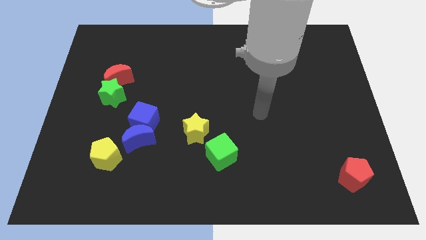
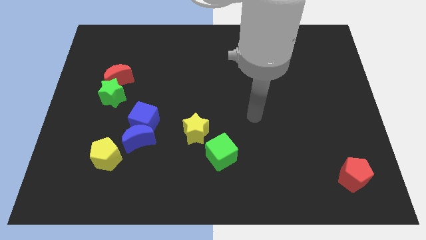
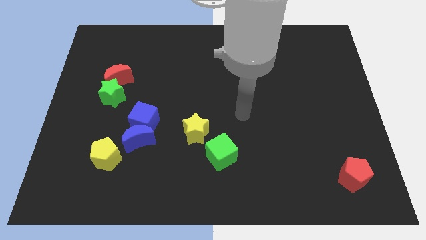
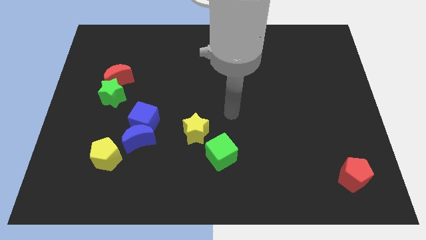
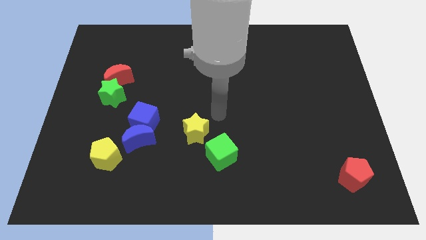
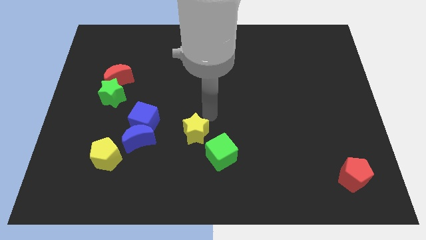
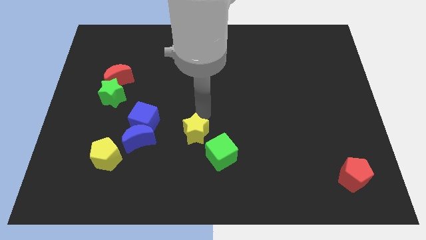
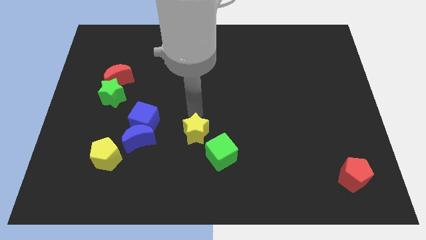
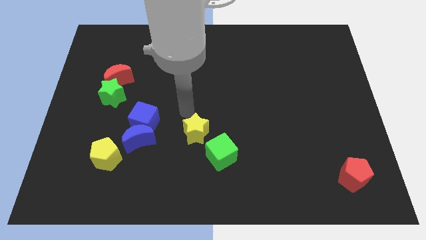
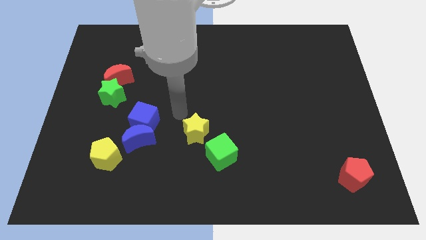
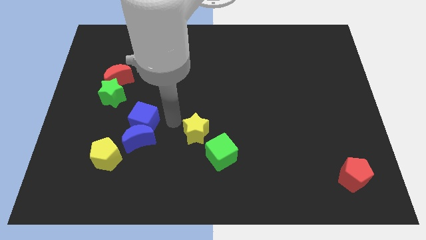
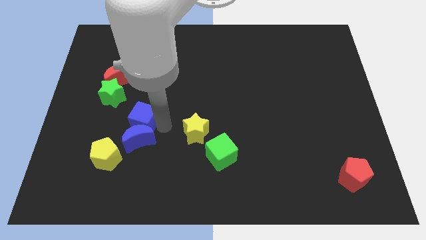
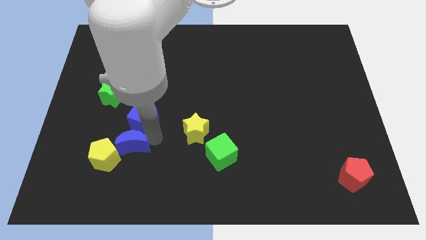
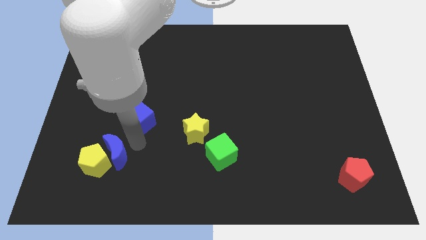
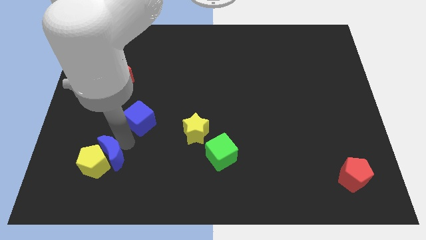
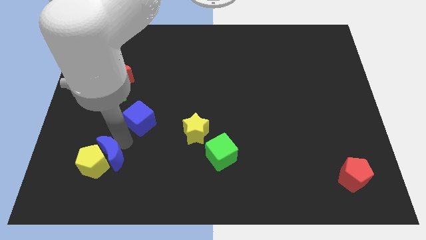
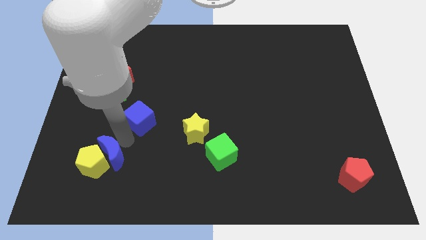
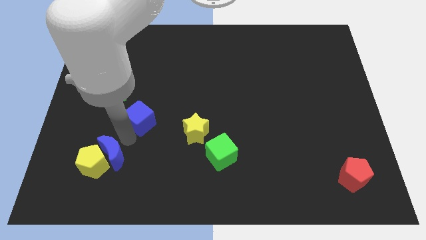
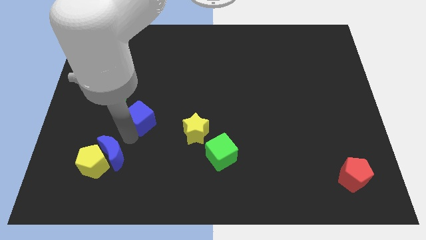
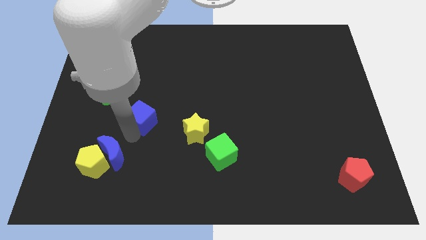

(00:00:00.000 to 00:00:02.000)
separate the blue cube from the blue moon

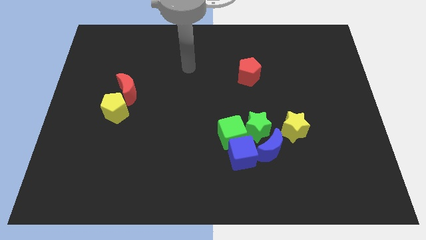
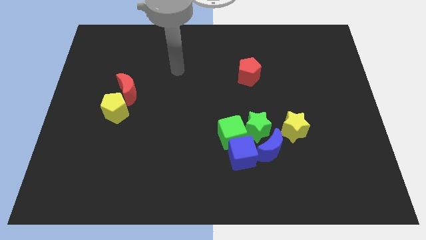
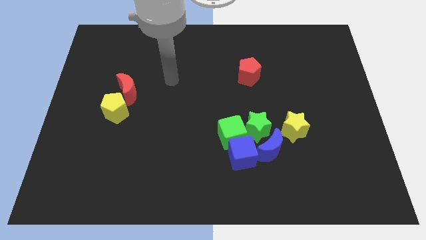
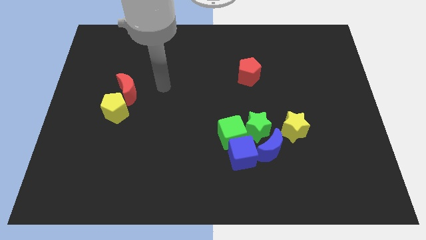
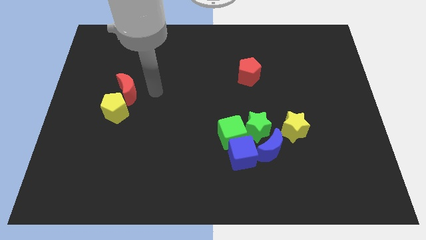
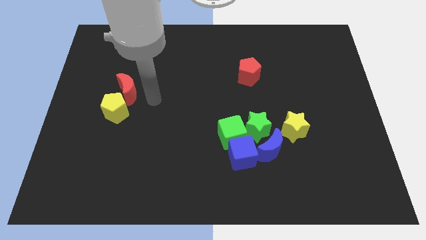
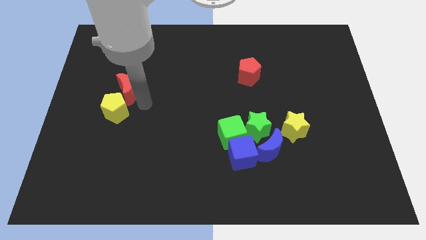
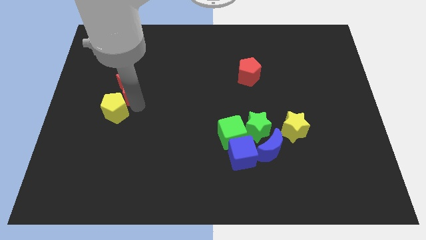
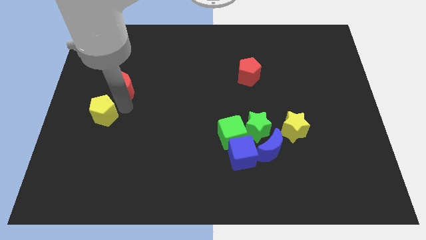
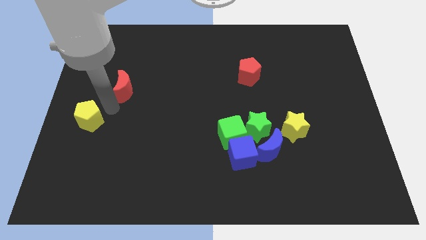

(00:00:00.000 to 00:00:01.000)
move the red moon away from the yellow pentagon

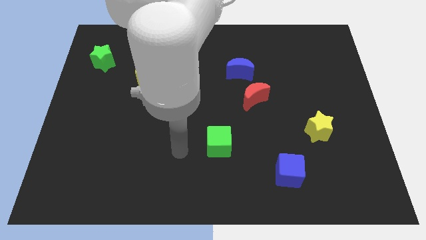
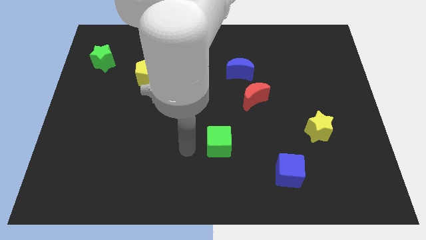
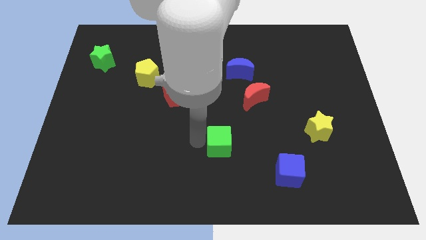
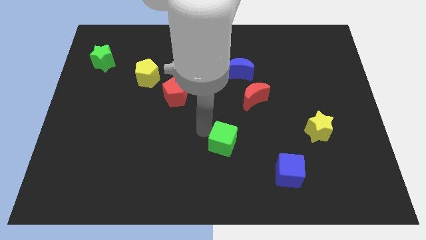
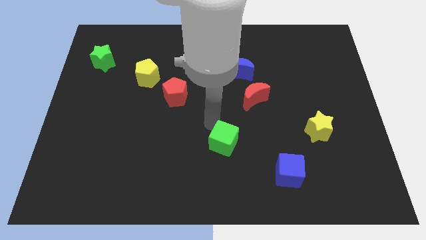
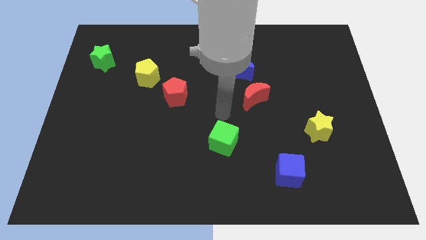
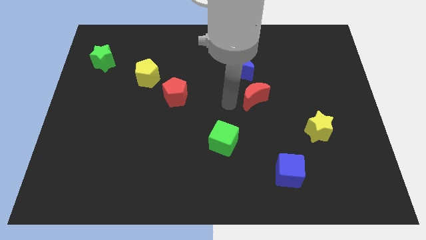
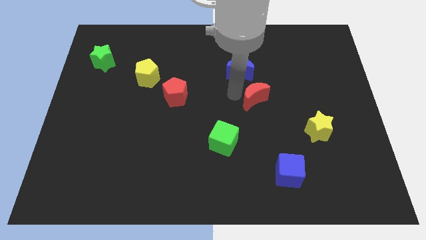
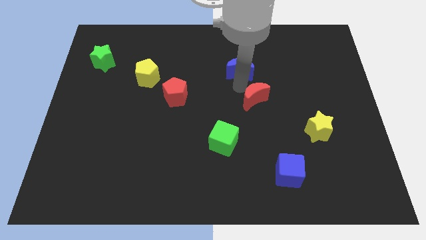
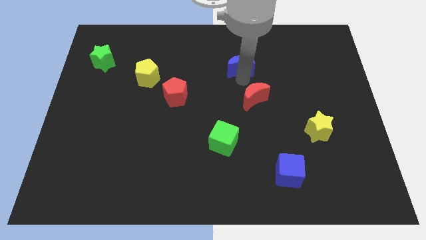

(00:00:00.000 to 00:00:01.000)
move the red moon away from the blue moon

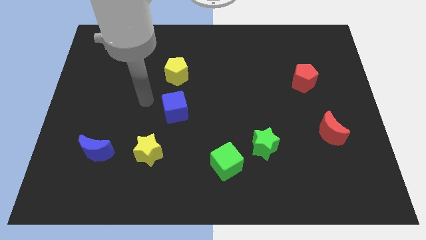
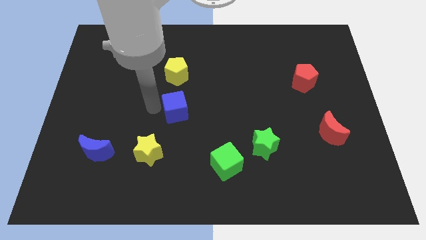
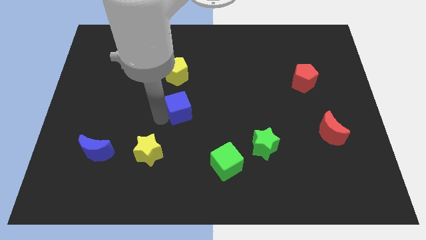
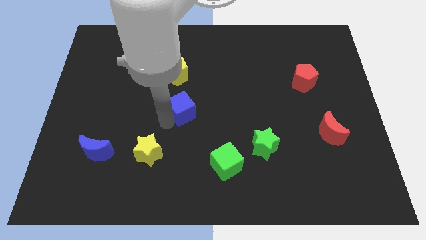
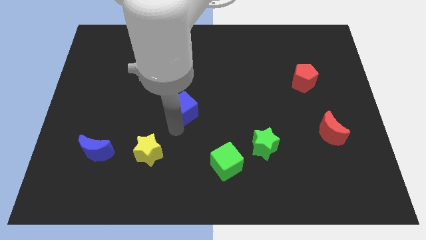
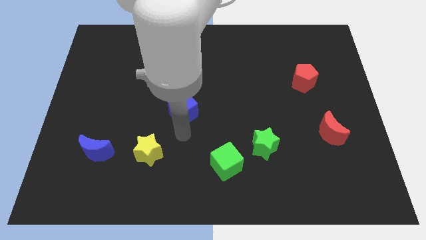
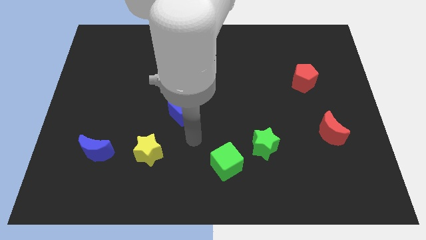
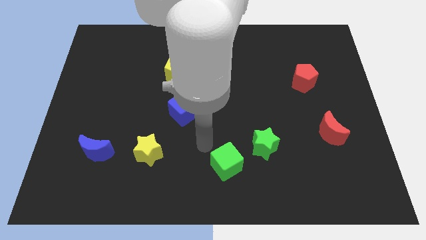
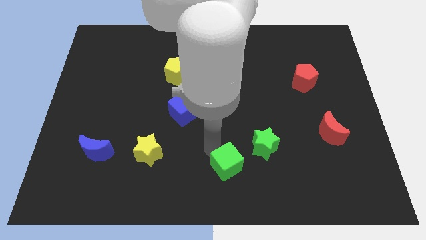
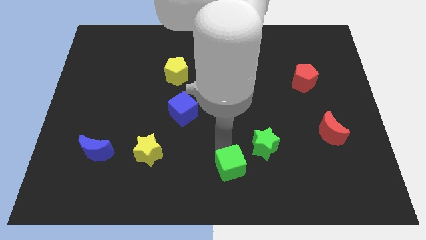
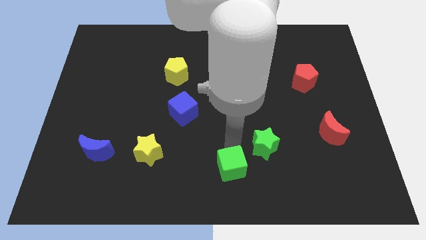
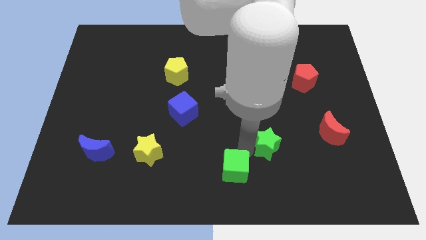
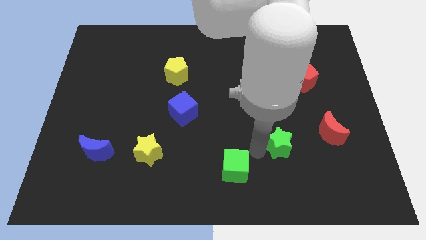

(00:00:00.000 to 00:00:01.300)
pull the green cube apart from the green star

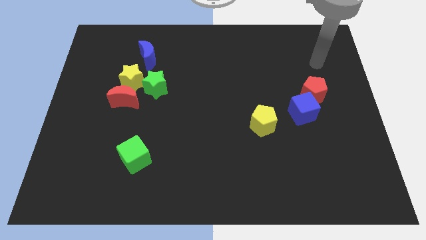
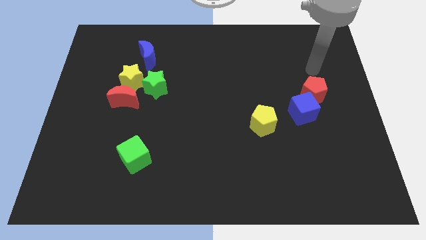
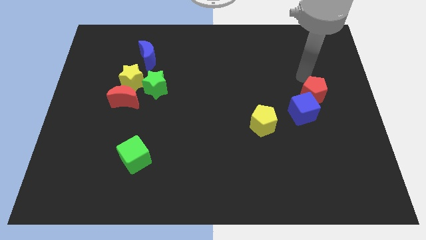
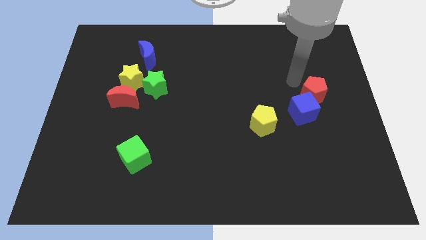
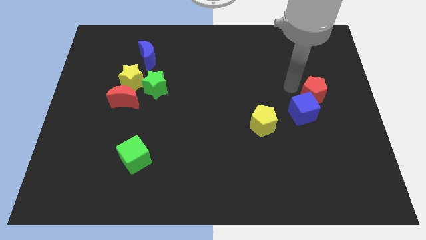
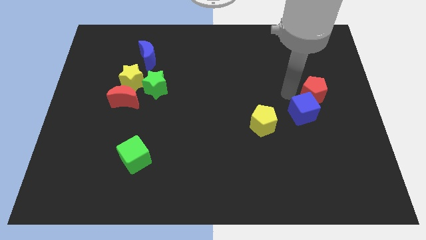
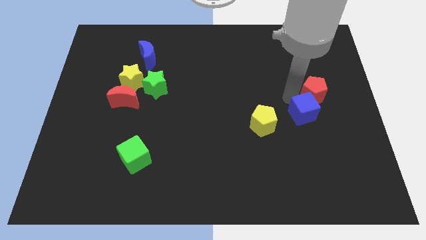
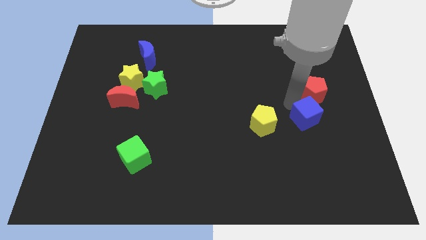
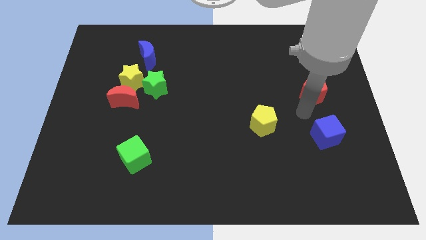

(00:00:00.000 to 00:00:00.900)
move the red pentagon away from the blue cube

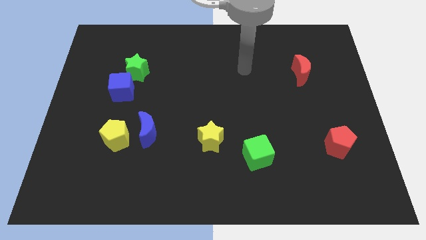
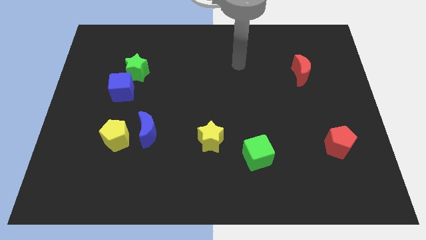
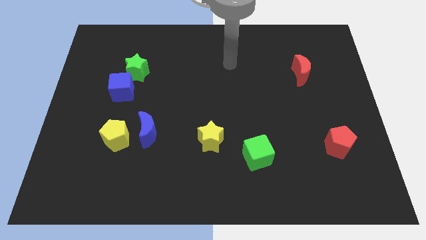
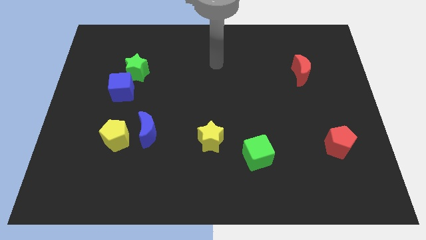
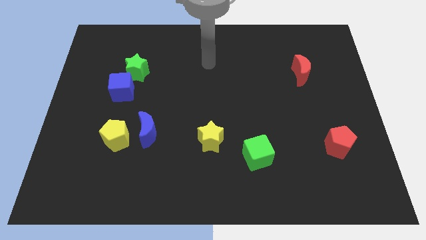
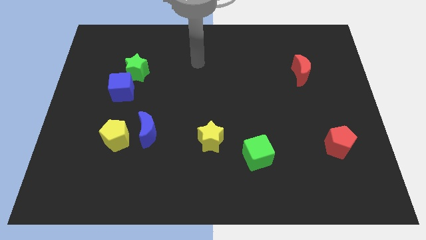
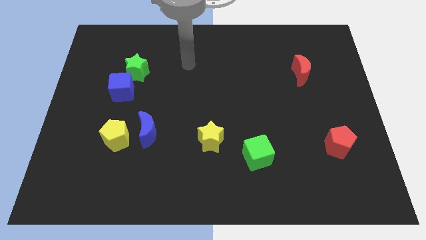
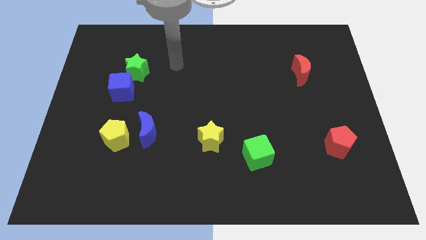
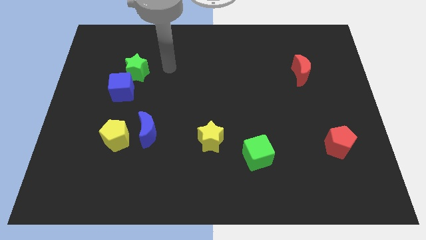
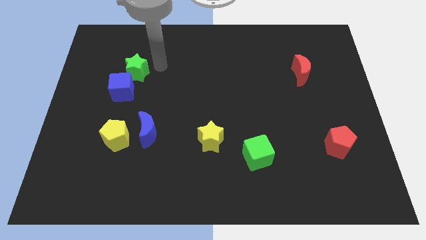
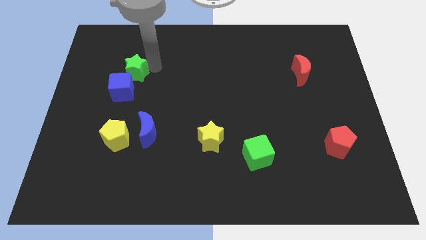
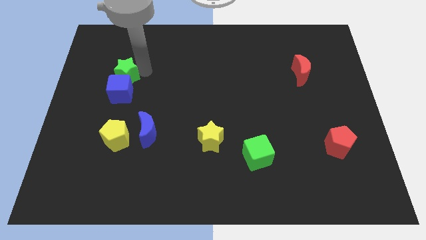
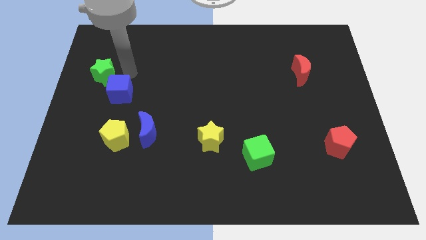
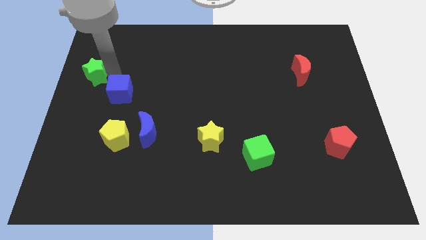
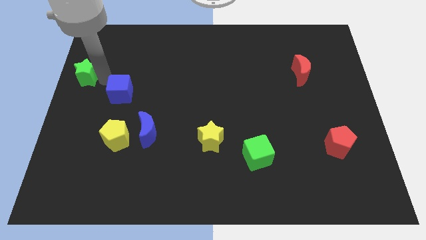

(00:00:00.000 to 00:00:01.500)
separate the blue cube from the green star

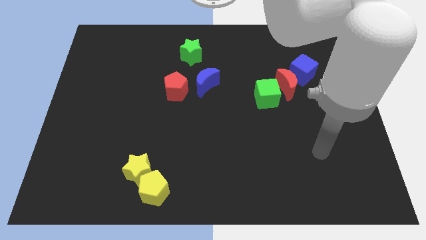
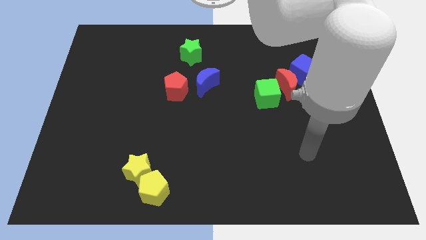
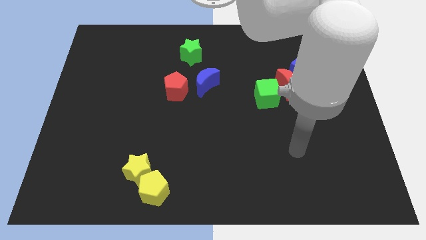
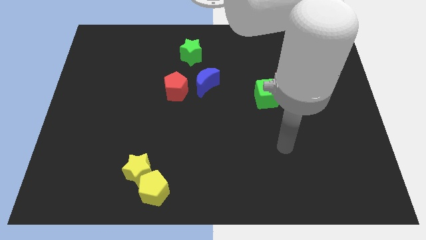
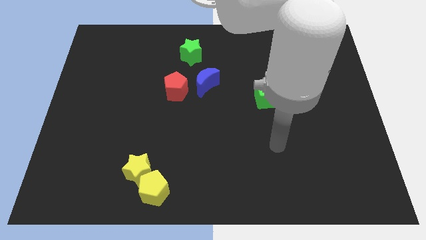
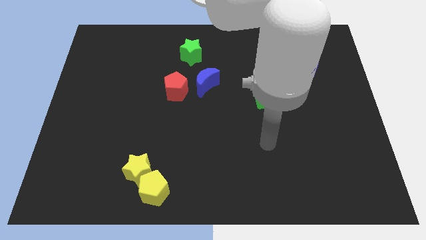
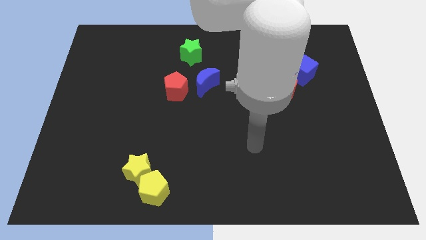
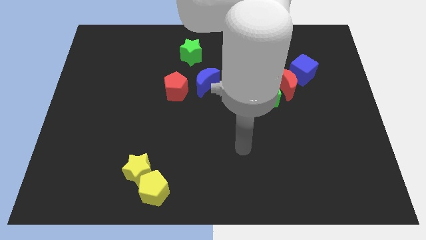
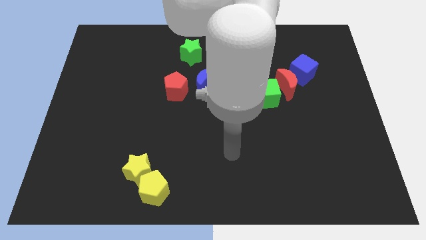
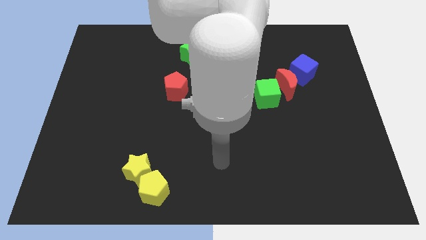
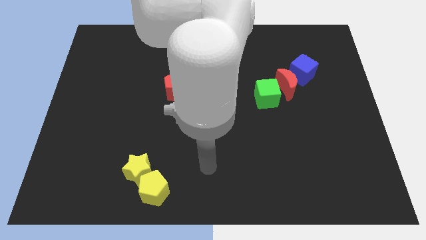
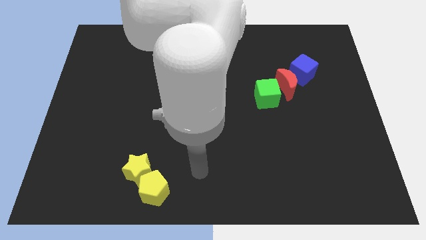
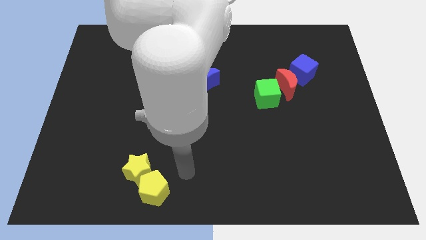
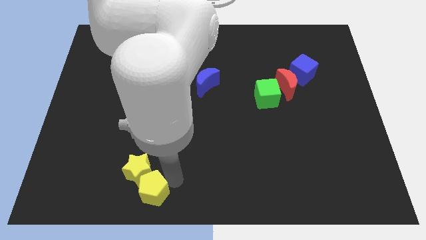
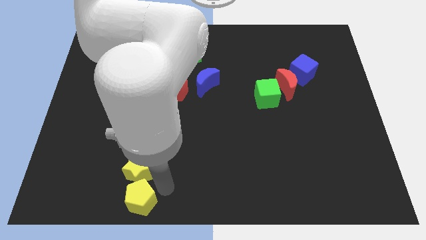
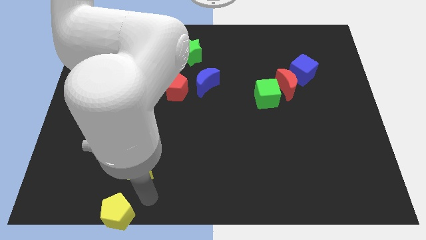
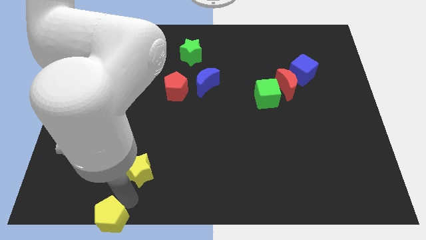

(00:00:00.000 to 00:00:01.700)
pull the yellow star apart from the yellow pentagon
